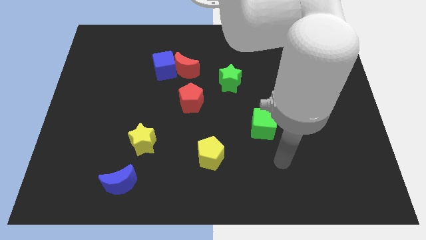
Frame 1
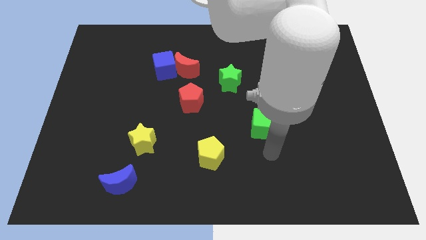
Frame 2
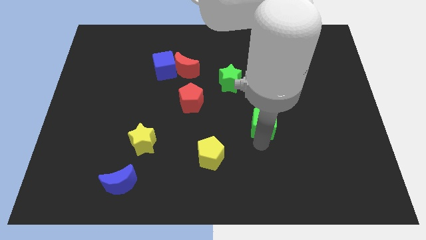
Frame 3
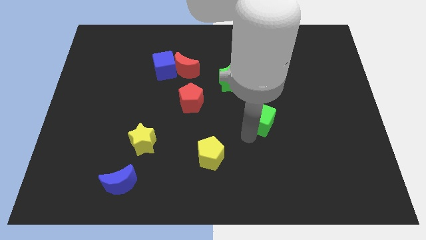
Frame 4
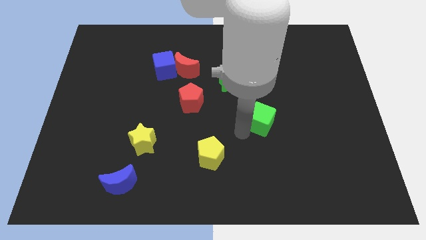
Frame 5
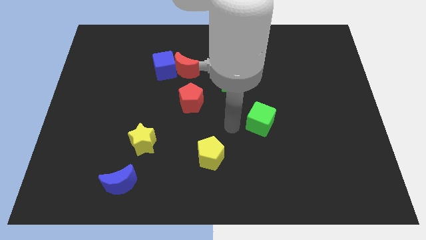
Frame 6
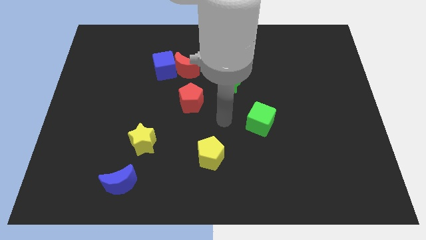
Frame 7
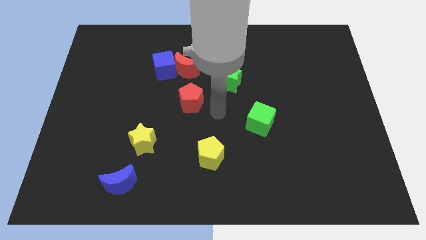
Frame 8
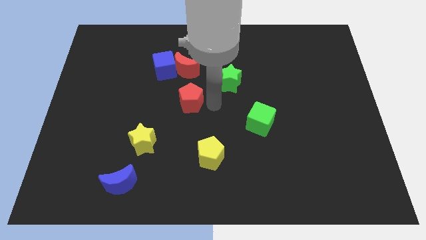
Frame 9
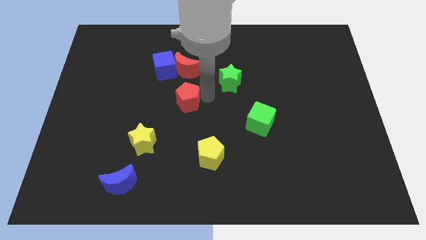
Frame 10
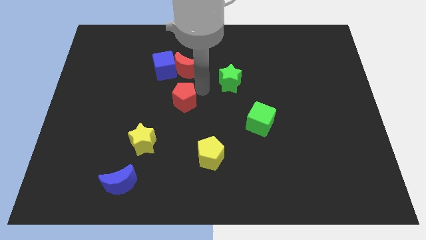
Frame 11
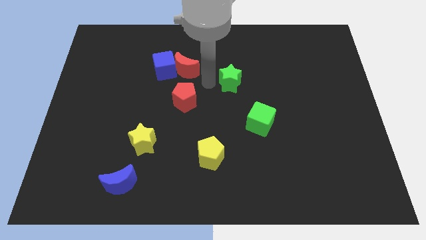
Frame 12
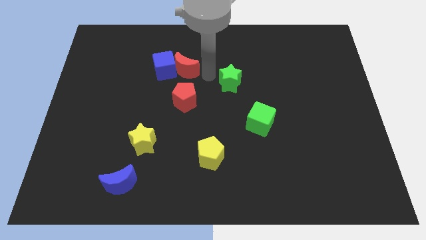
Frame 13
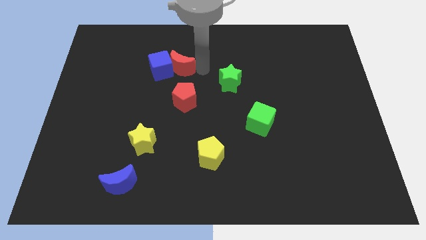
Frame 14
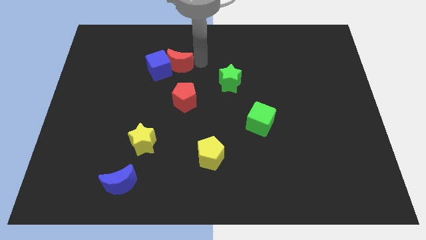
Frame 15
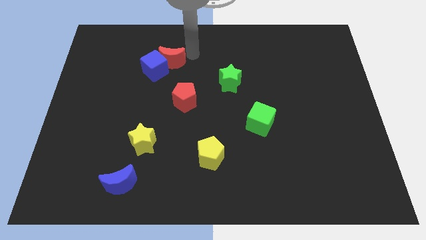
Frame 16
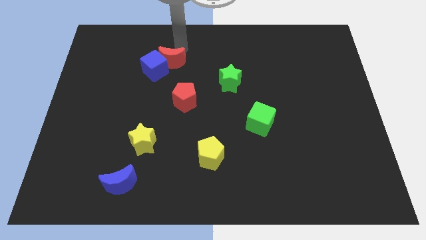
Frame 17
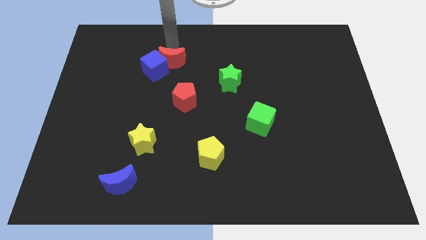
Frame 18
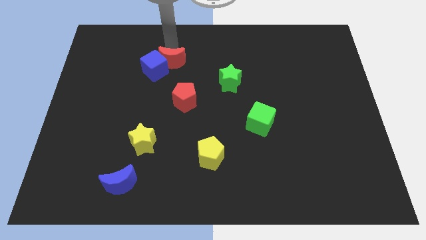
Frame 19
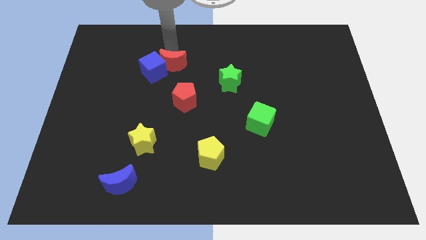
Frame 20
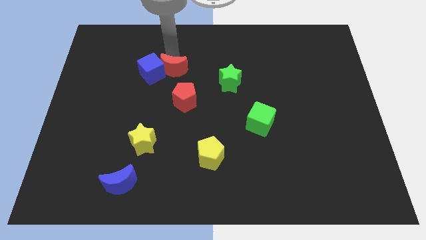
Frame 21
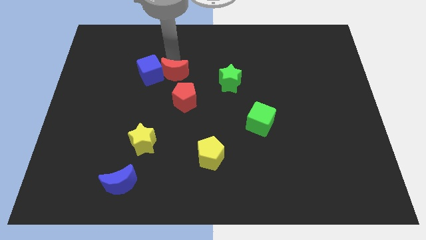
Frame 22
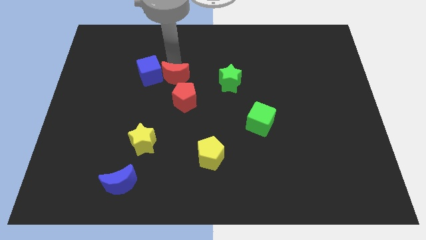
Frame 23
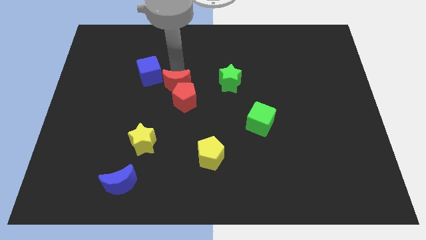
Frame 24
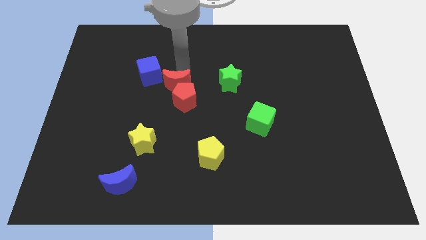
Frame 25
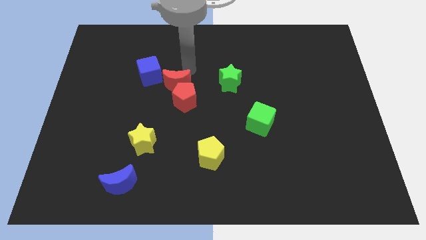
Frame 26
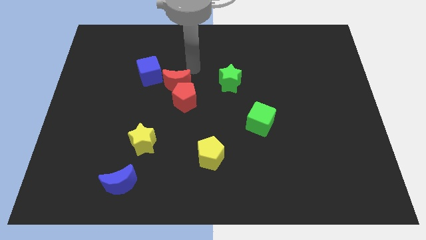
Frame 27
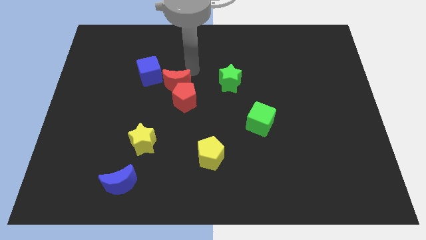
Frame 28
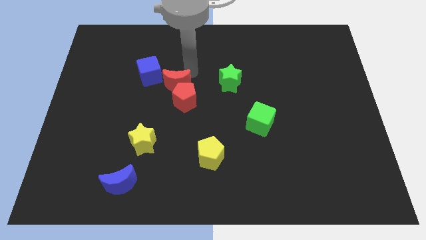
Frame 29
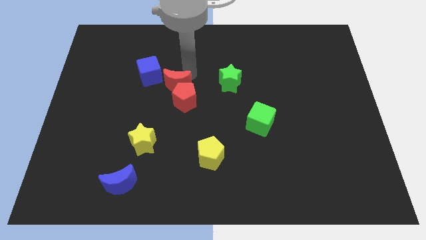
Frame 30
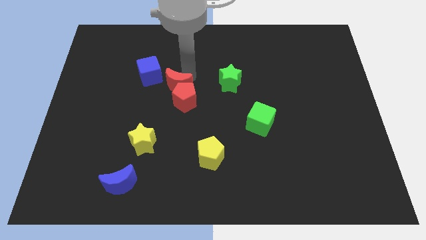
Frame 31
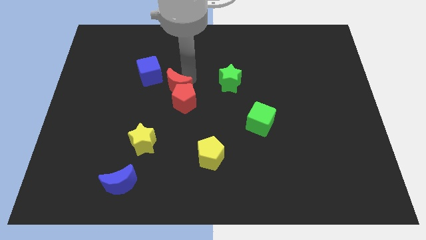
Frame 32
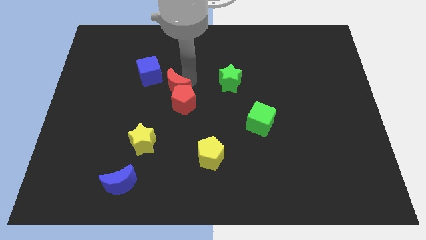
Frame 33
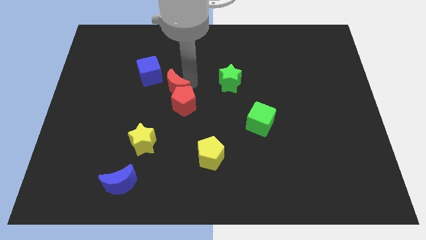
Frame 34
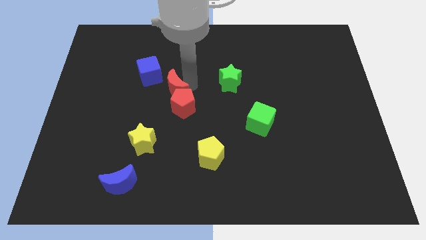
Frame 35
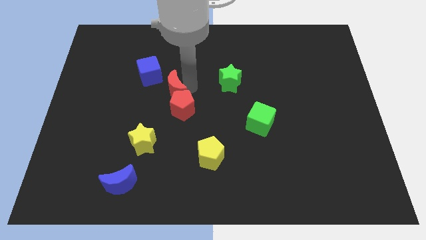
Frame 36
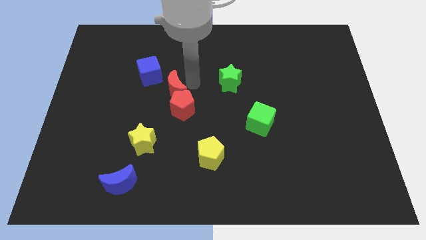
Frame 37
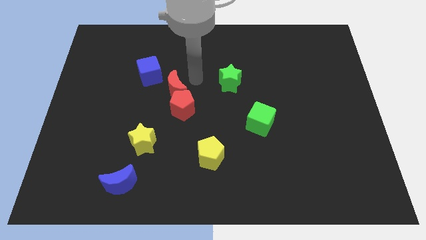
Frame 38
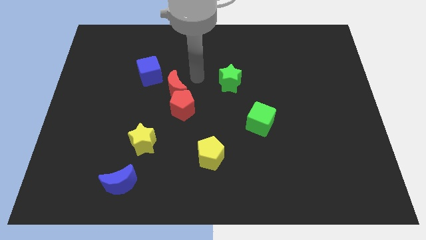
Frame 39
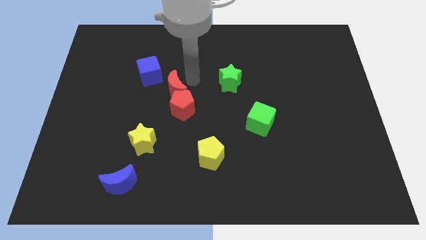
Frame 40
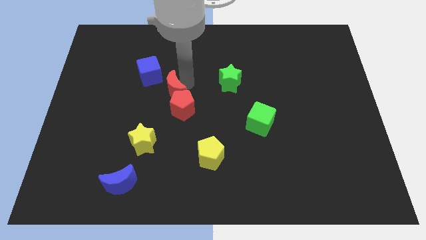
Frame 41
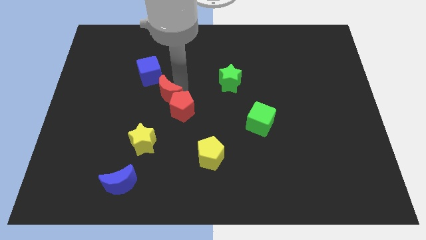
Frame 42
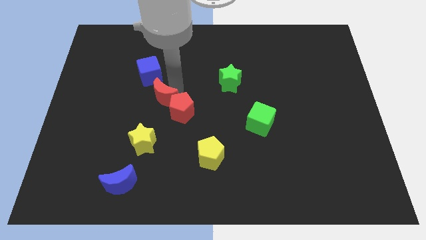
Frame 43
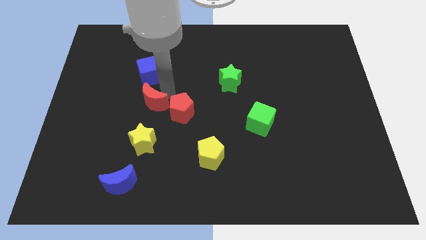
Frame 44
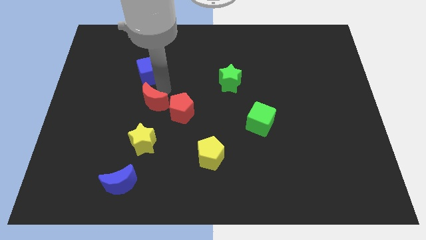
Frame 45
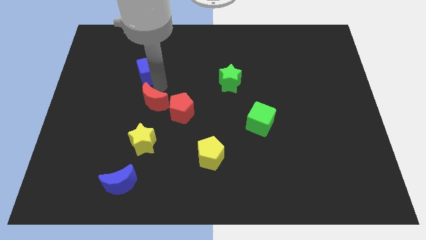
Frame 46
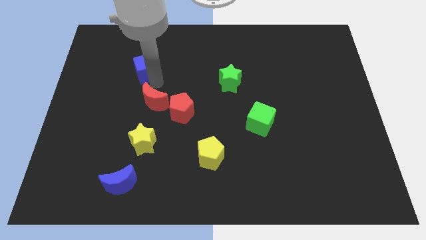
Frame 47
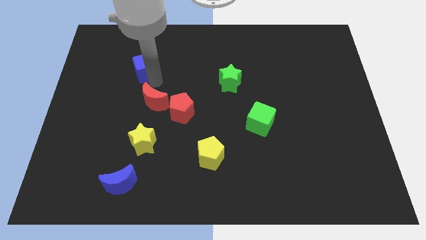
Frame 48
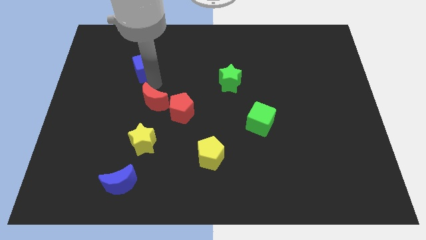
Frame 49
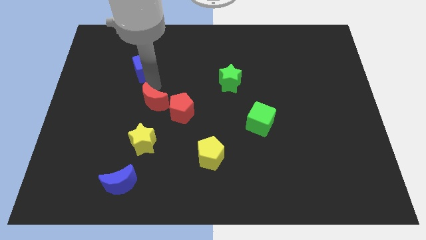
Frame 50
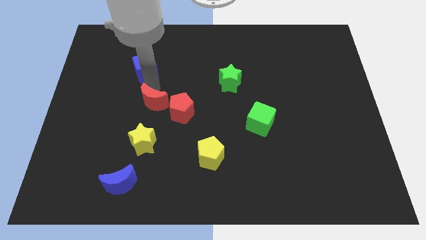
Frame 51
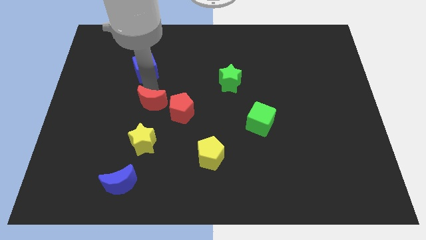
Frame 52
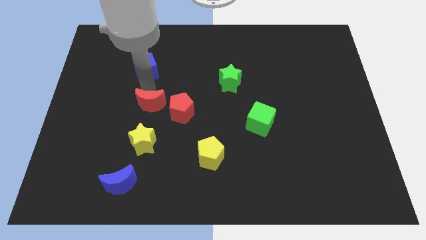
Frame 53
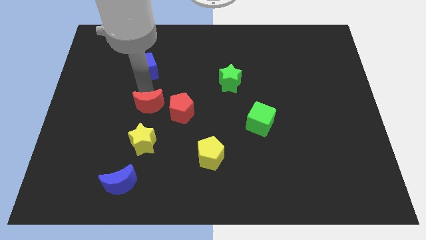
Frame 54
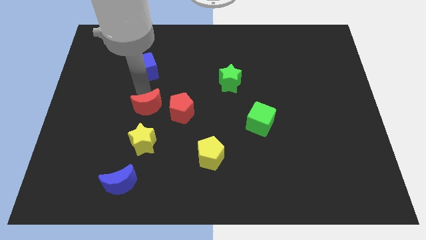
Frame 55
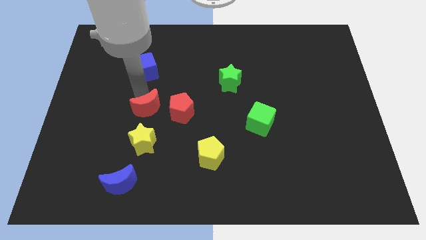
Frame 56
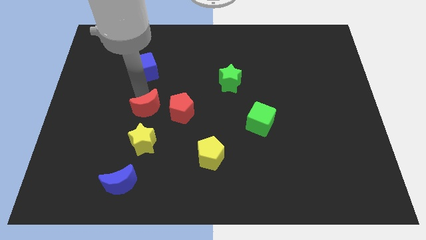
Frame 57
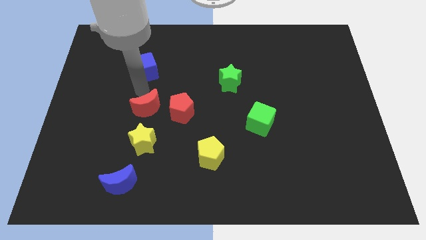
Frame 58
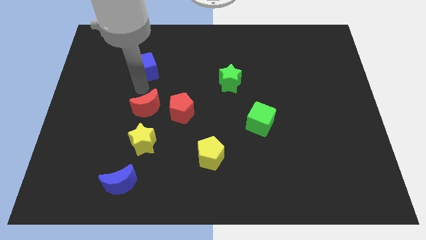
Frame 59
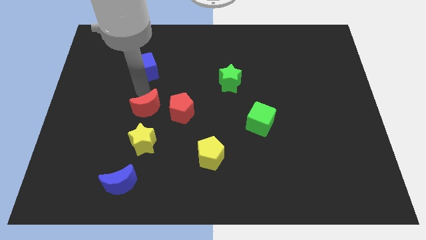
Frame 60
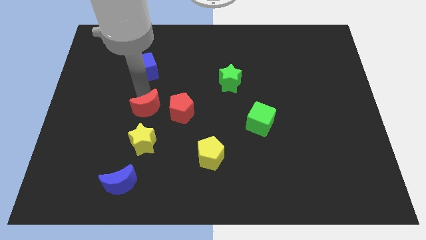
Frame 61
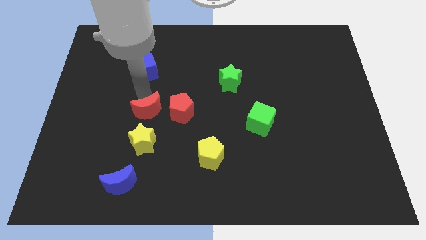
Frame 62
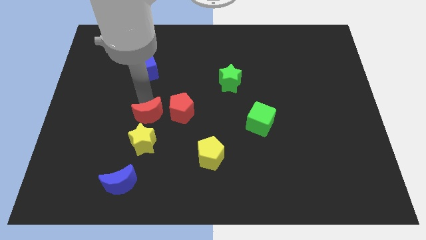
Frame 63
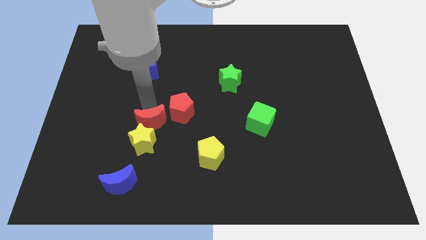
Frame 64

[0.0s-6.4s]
slide the red moon next to the yellow star

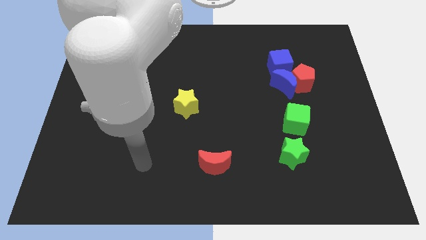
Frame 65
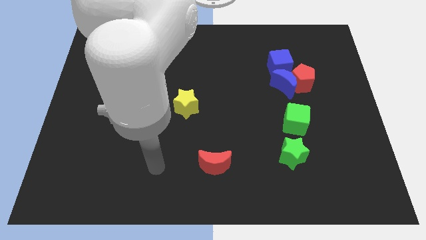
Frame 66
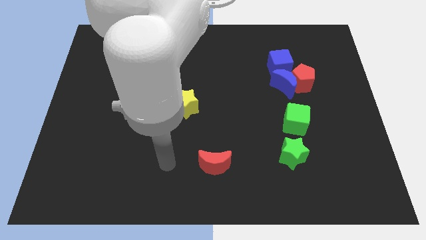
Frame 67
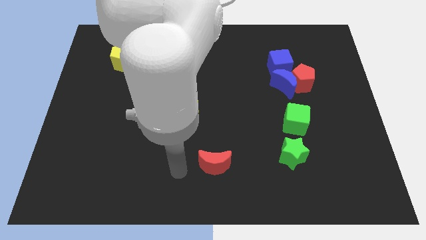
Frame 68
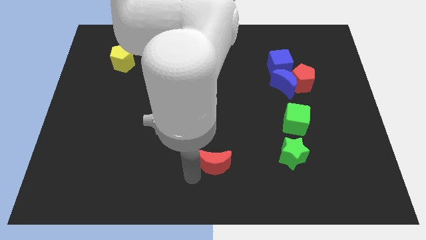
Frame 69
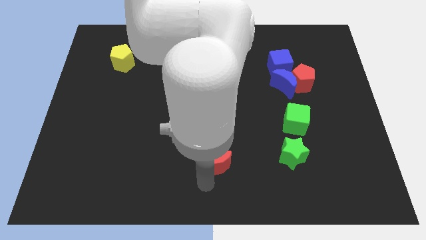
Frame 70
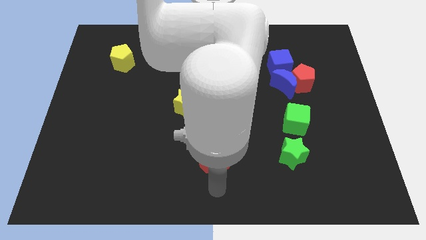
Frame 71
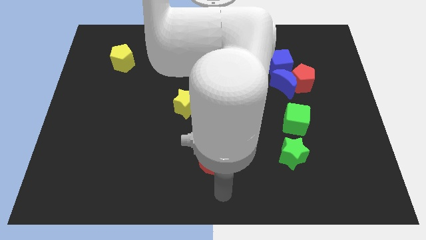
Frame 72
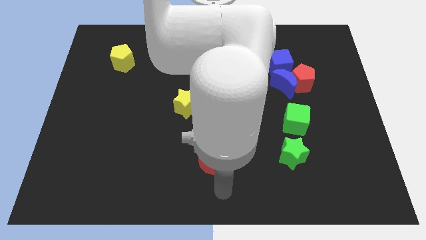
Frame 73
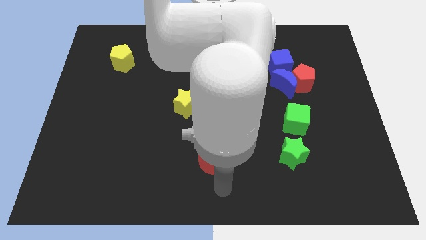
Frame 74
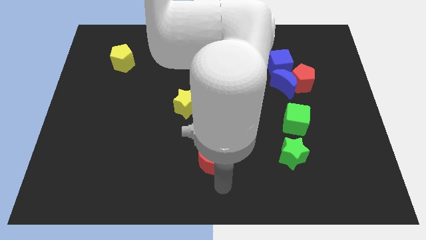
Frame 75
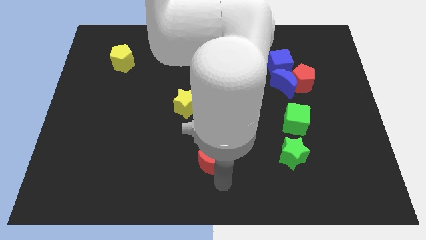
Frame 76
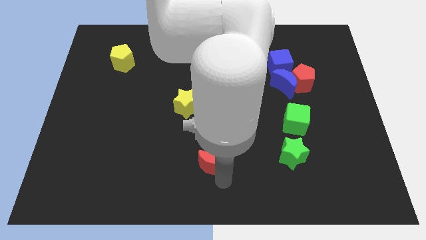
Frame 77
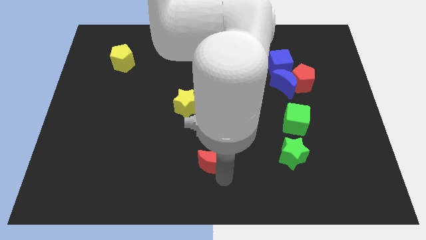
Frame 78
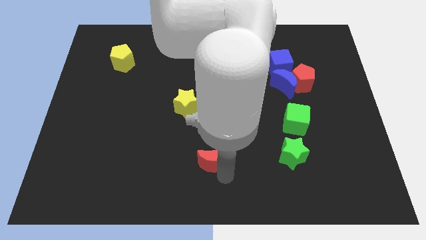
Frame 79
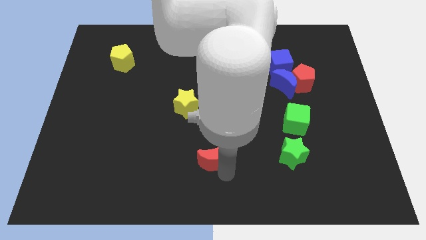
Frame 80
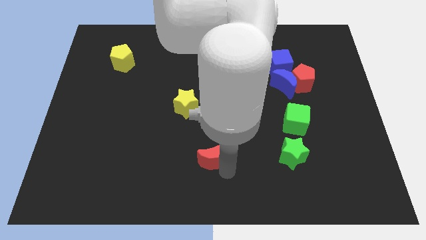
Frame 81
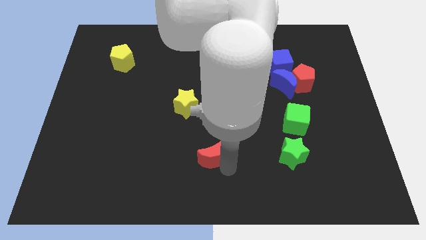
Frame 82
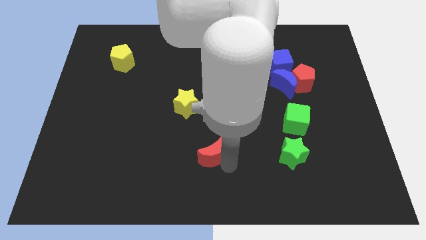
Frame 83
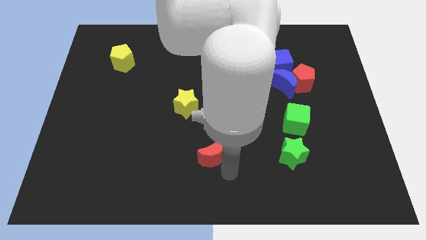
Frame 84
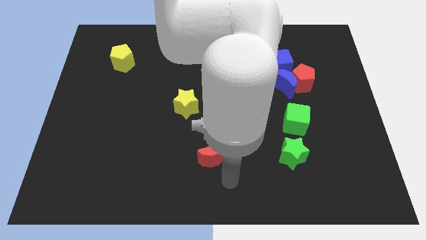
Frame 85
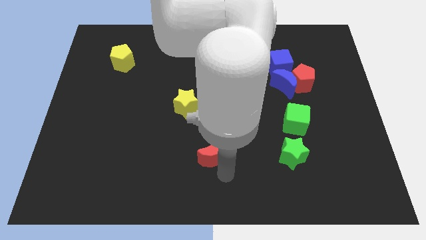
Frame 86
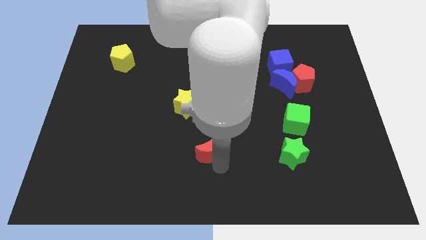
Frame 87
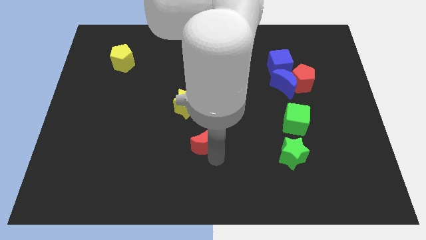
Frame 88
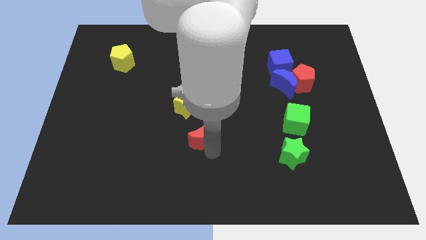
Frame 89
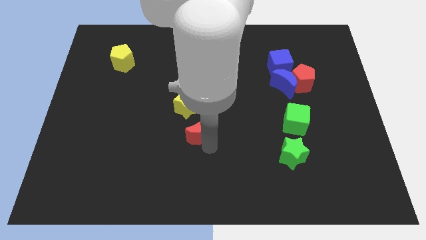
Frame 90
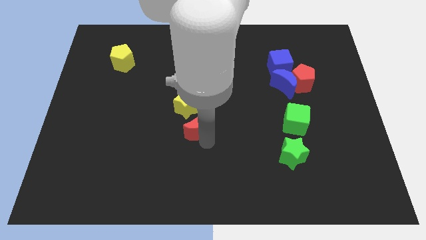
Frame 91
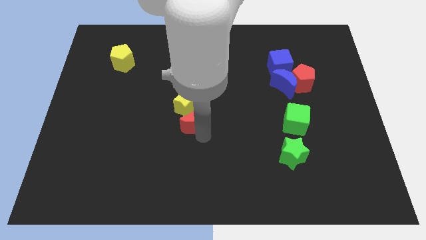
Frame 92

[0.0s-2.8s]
slide the red moon close to the yellow star
